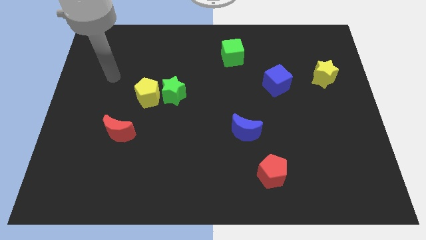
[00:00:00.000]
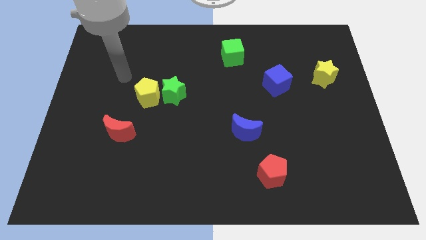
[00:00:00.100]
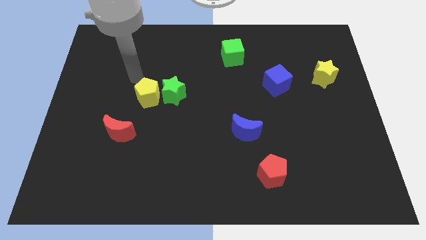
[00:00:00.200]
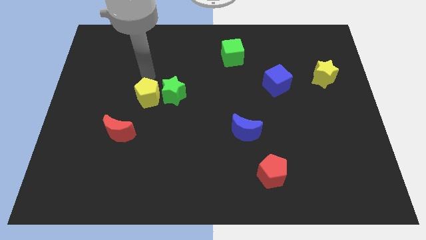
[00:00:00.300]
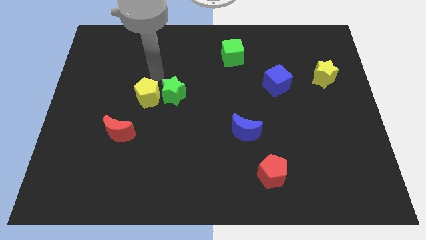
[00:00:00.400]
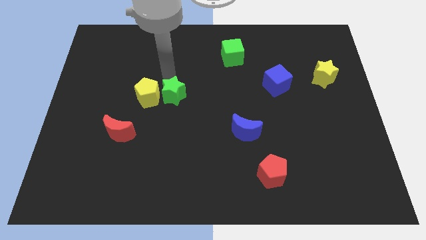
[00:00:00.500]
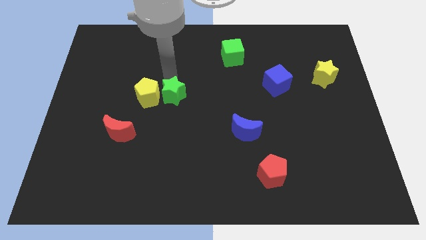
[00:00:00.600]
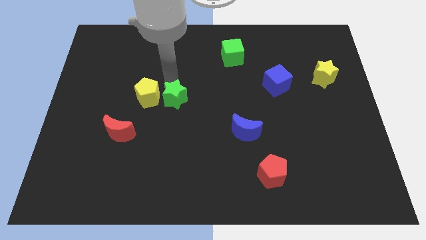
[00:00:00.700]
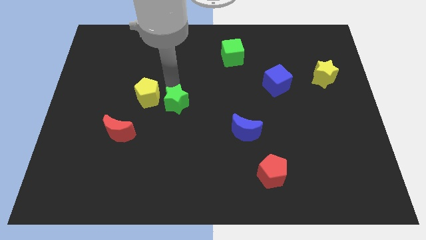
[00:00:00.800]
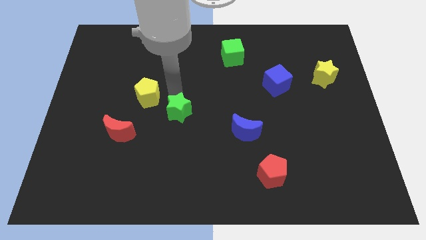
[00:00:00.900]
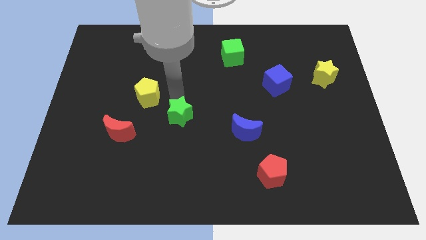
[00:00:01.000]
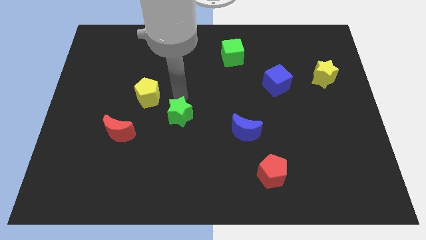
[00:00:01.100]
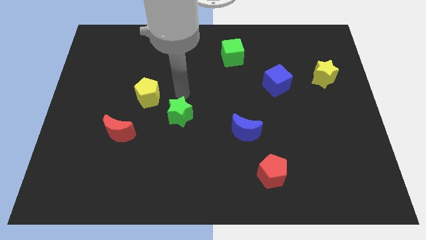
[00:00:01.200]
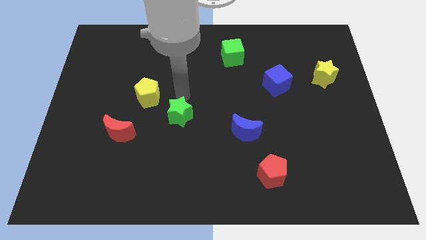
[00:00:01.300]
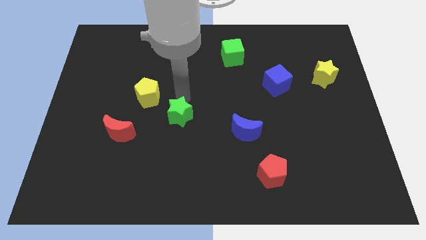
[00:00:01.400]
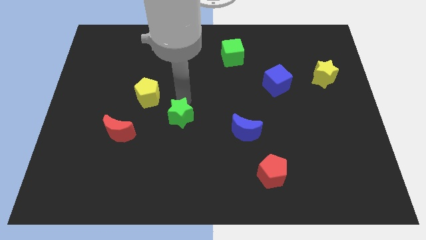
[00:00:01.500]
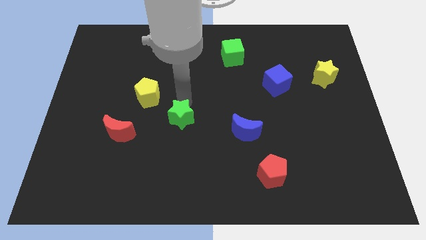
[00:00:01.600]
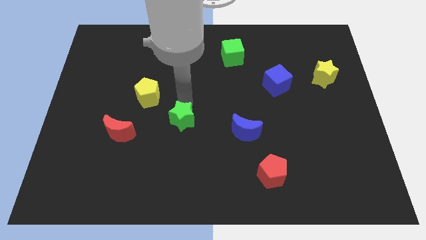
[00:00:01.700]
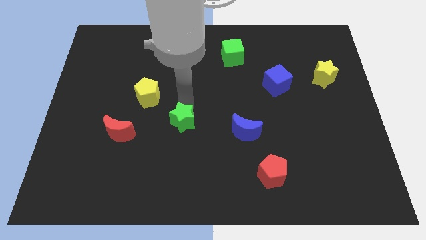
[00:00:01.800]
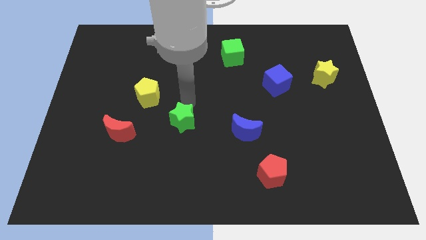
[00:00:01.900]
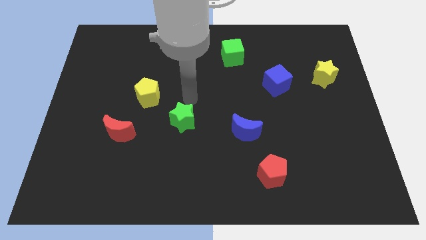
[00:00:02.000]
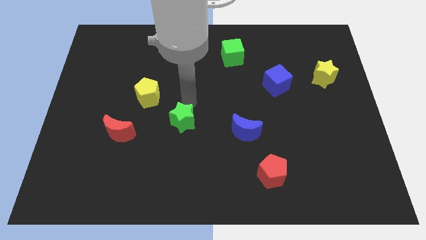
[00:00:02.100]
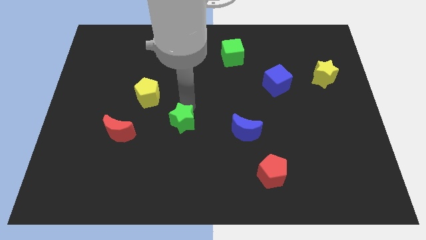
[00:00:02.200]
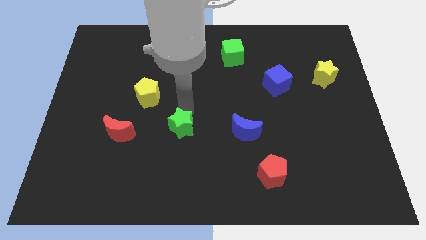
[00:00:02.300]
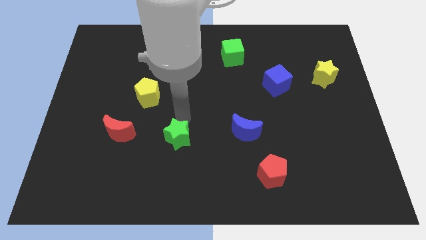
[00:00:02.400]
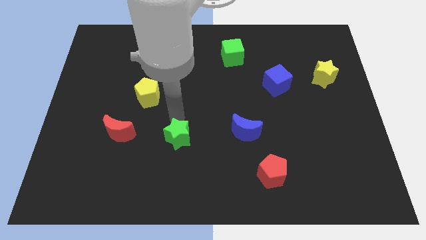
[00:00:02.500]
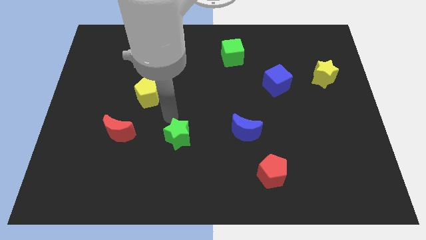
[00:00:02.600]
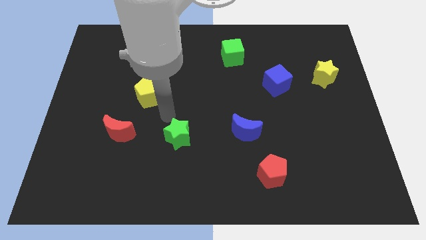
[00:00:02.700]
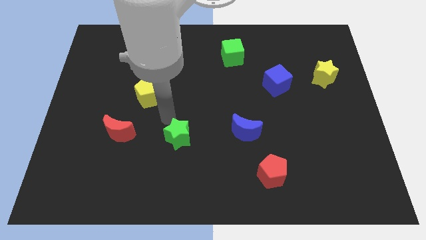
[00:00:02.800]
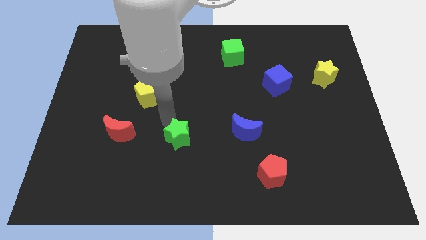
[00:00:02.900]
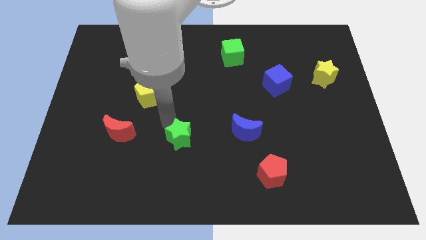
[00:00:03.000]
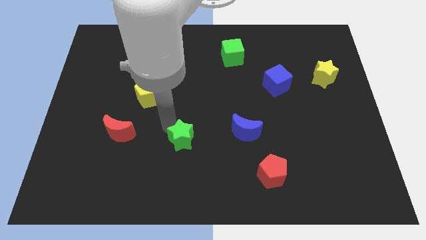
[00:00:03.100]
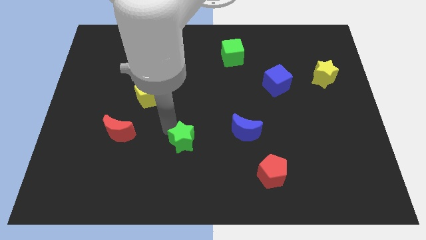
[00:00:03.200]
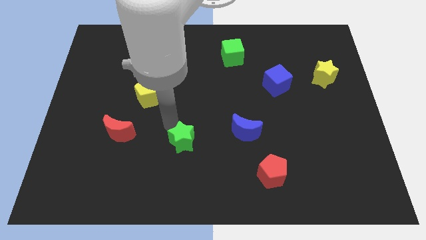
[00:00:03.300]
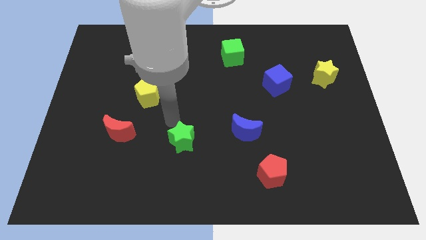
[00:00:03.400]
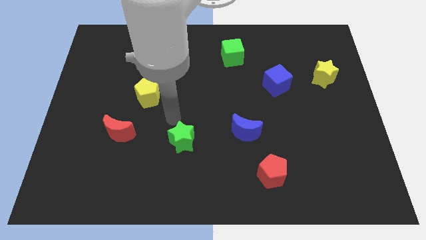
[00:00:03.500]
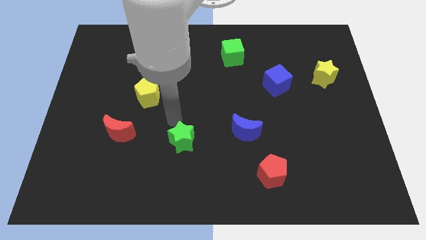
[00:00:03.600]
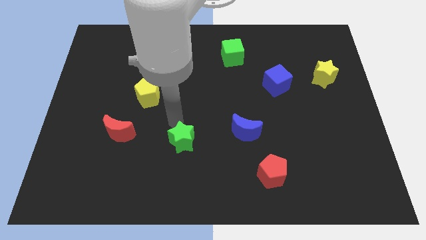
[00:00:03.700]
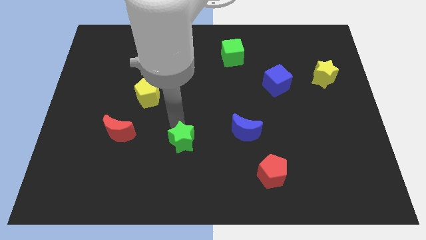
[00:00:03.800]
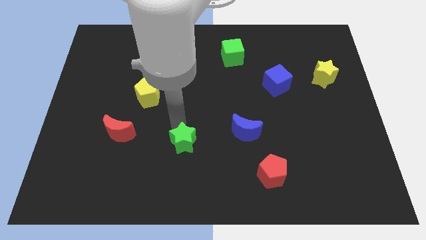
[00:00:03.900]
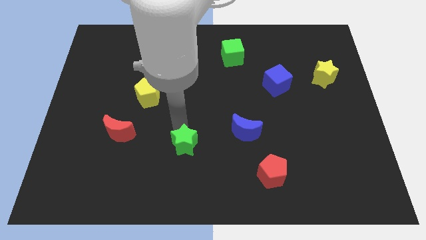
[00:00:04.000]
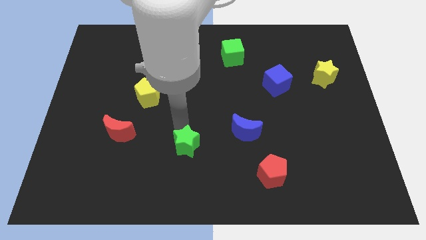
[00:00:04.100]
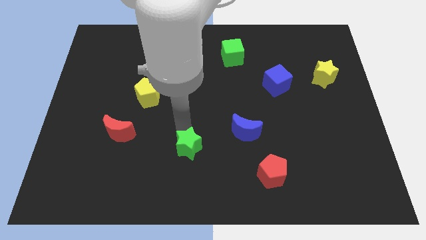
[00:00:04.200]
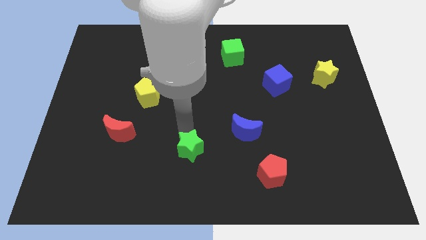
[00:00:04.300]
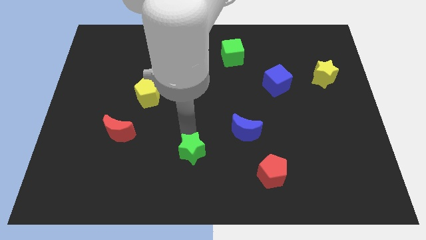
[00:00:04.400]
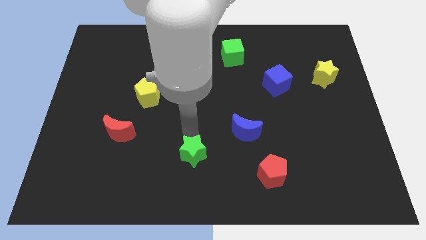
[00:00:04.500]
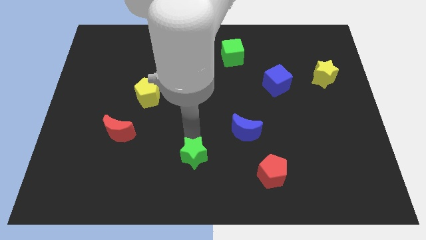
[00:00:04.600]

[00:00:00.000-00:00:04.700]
slide the green star to the bottom side

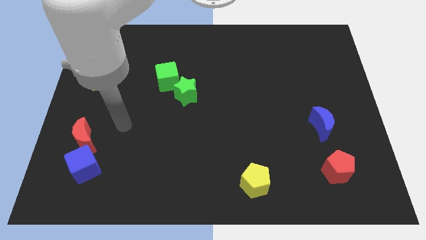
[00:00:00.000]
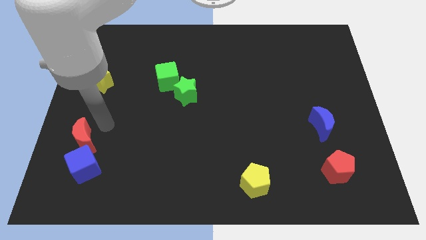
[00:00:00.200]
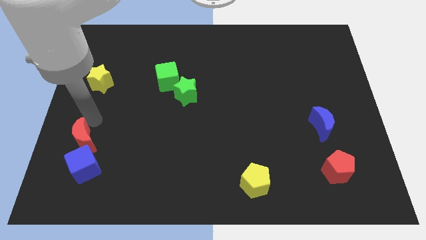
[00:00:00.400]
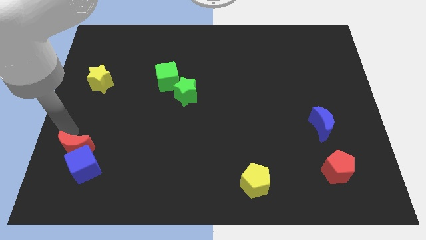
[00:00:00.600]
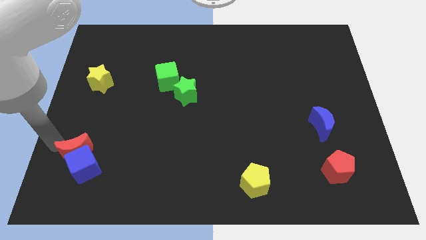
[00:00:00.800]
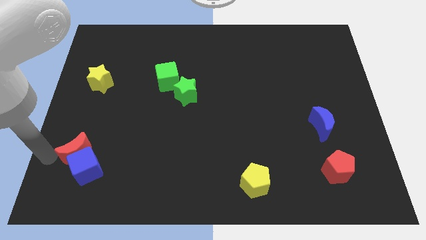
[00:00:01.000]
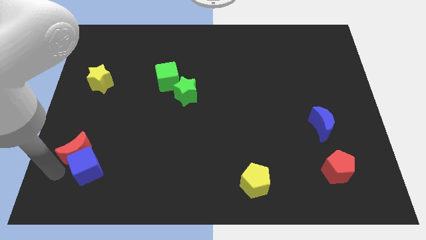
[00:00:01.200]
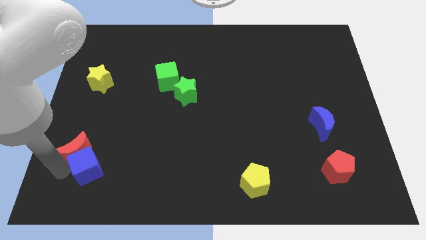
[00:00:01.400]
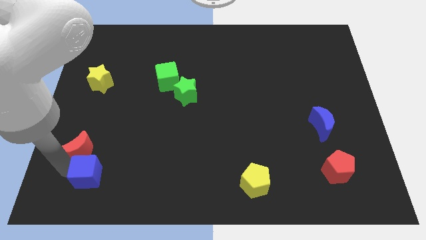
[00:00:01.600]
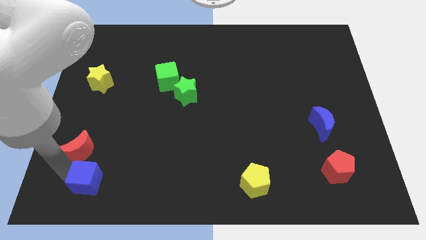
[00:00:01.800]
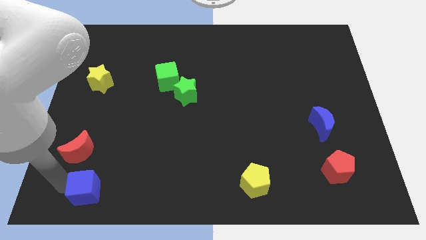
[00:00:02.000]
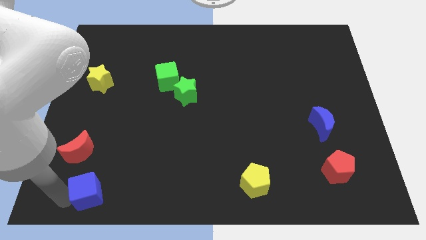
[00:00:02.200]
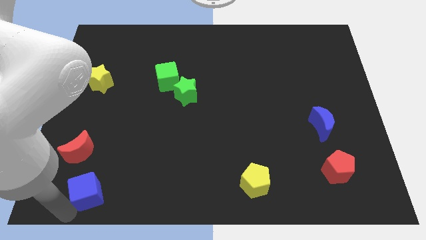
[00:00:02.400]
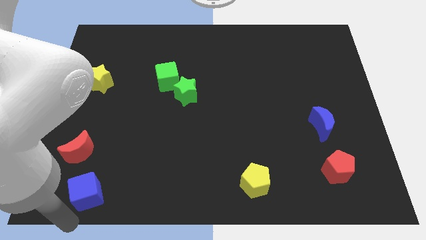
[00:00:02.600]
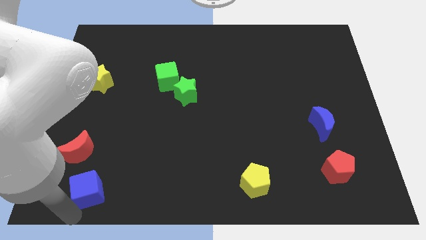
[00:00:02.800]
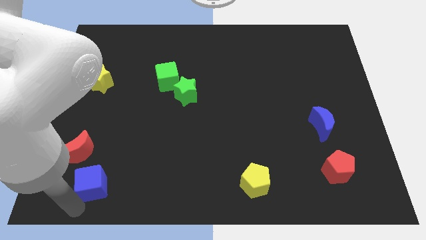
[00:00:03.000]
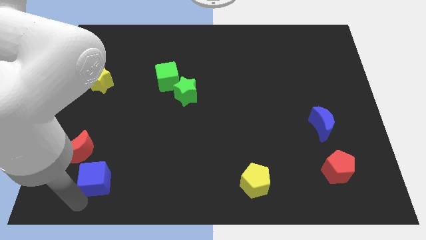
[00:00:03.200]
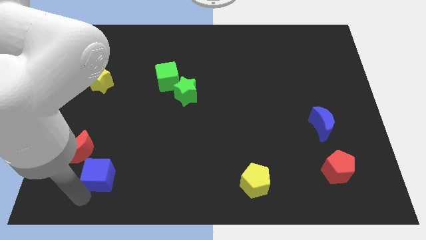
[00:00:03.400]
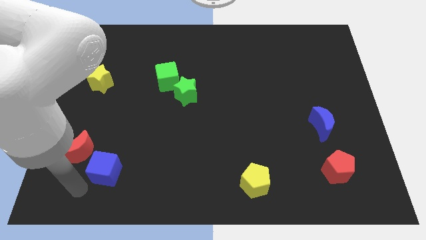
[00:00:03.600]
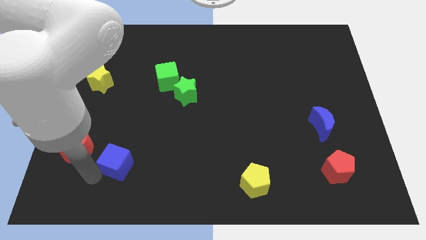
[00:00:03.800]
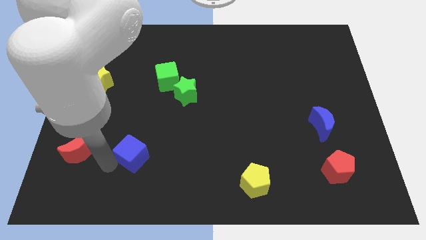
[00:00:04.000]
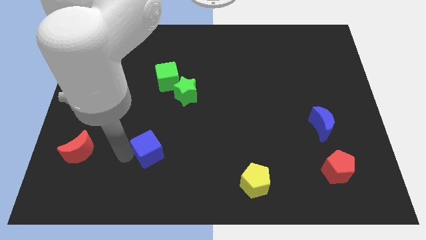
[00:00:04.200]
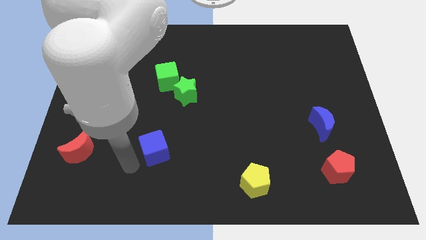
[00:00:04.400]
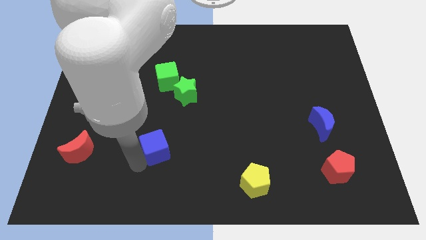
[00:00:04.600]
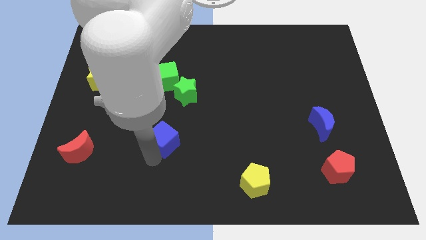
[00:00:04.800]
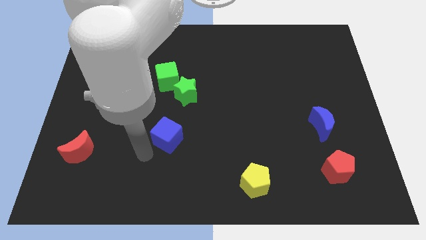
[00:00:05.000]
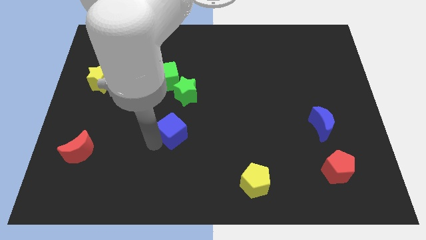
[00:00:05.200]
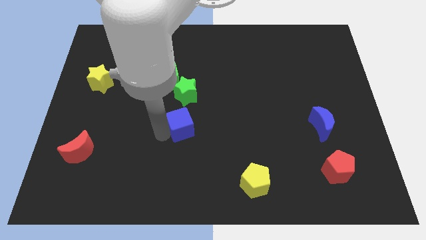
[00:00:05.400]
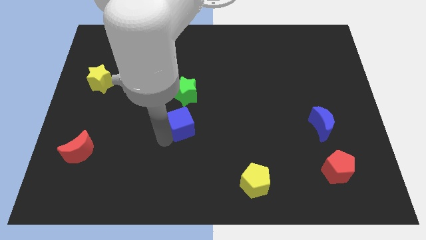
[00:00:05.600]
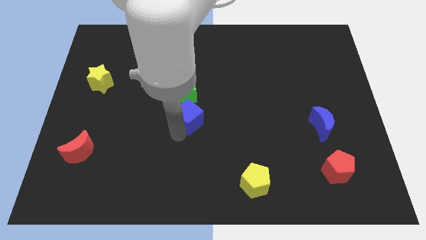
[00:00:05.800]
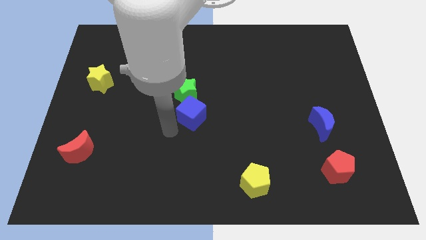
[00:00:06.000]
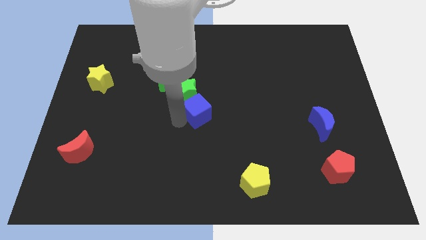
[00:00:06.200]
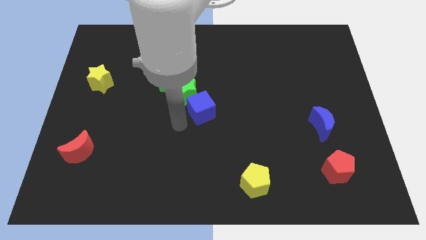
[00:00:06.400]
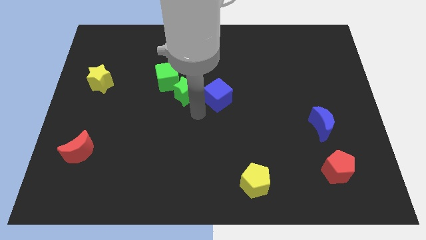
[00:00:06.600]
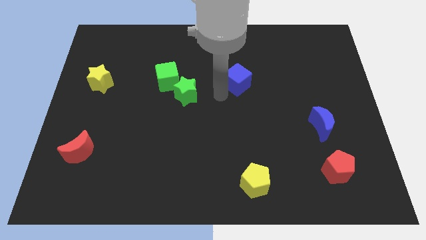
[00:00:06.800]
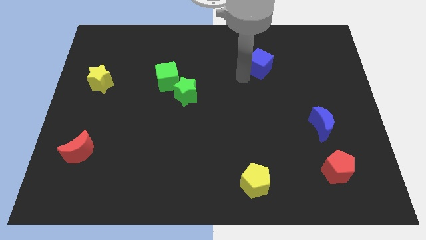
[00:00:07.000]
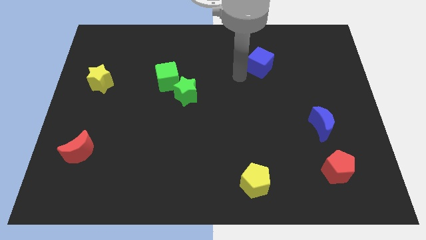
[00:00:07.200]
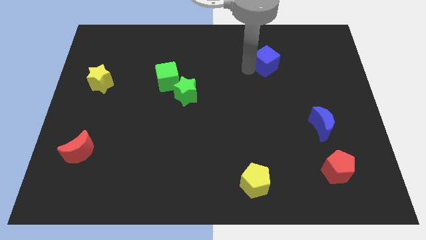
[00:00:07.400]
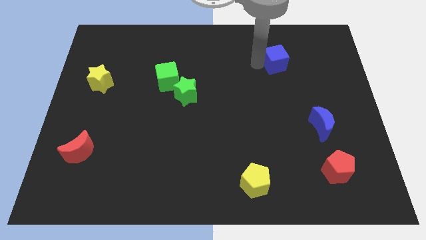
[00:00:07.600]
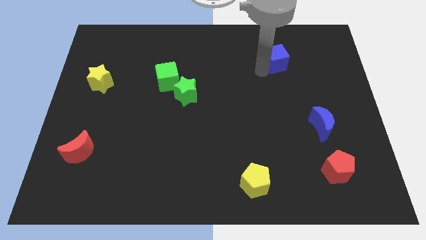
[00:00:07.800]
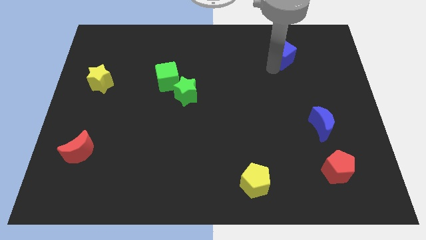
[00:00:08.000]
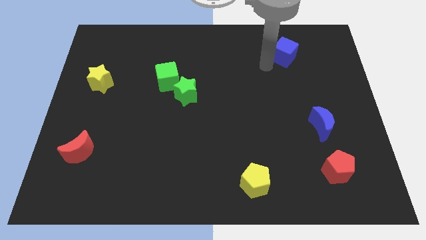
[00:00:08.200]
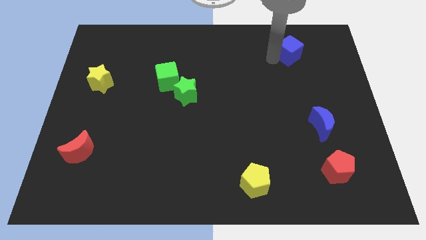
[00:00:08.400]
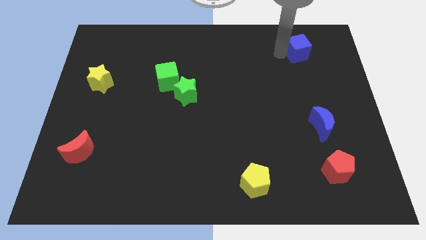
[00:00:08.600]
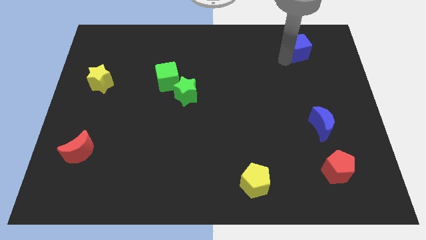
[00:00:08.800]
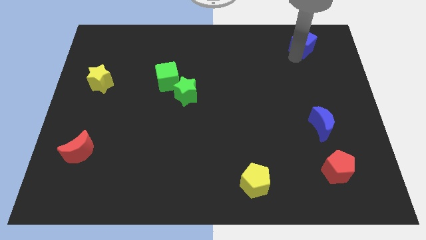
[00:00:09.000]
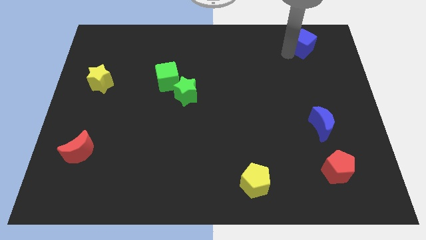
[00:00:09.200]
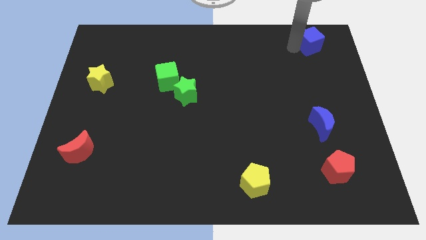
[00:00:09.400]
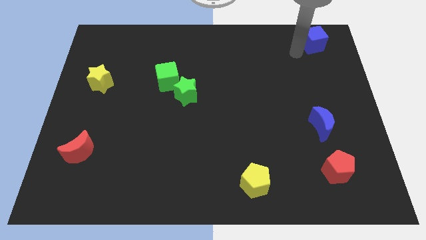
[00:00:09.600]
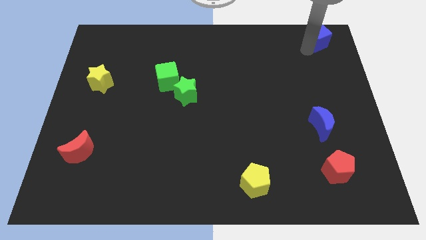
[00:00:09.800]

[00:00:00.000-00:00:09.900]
put the blue cube to the upper right corner
